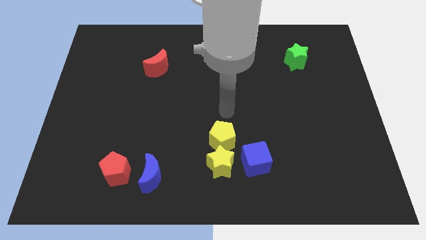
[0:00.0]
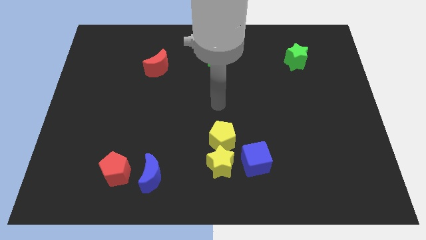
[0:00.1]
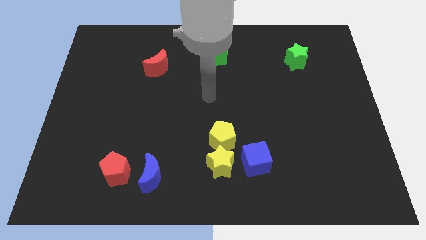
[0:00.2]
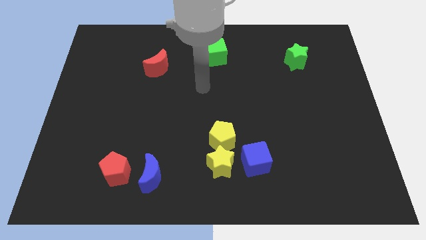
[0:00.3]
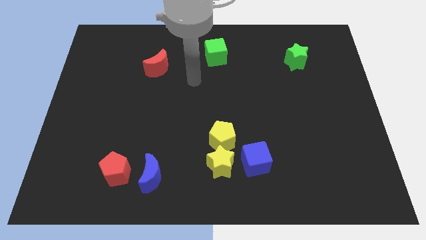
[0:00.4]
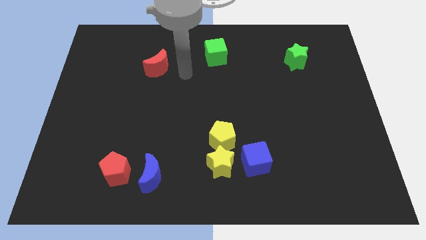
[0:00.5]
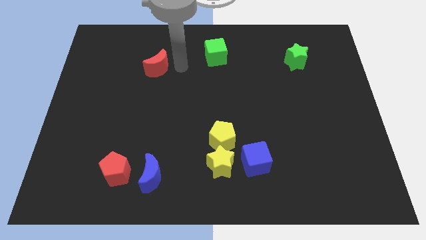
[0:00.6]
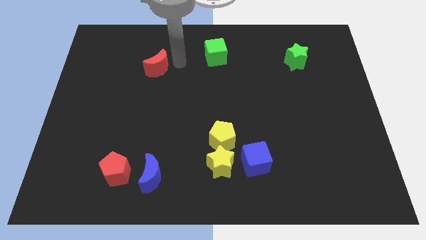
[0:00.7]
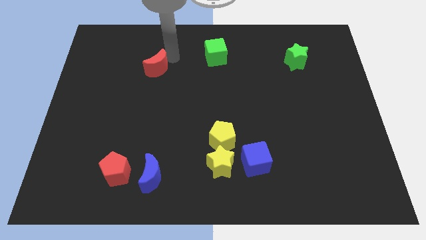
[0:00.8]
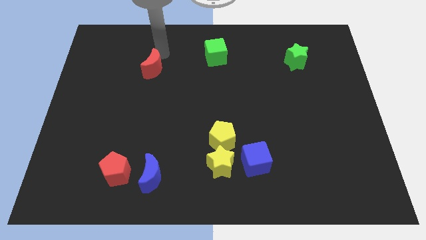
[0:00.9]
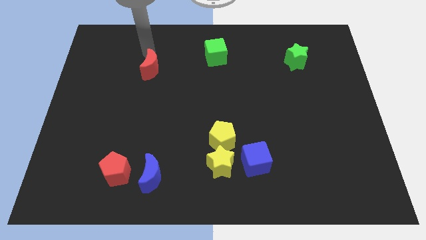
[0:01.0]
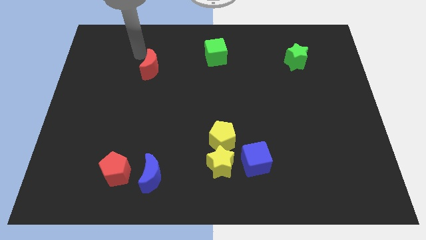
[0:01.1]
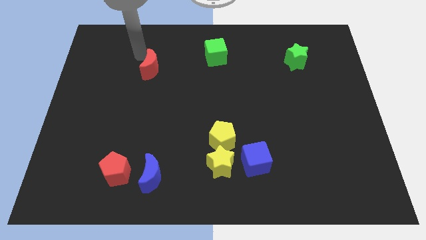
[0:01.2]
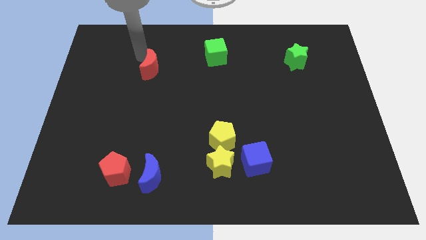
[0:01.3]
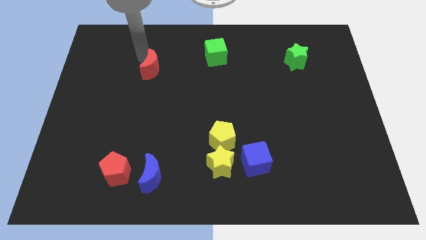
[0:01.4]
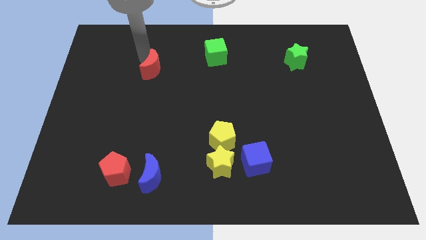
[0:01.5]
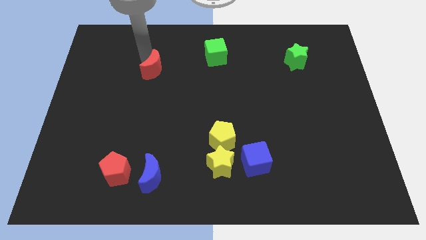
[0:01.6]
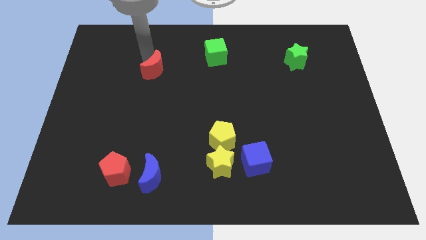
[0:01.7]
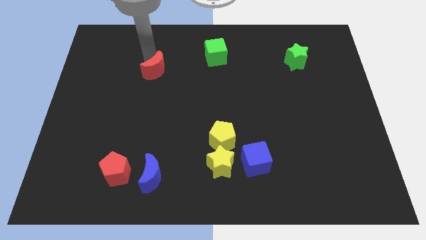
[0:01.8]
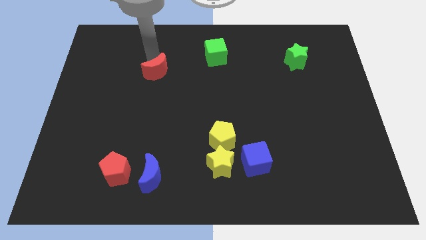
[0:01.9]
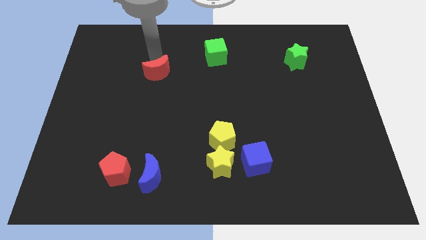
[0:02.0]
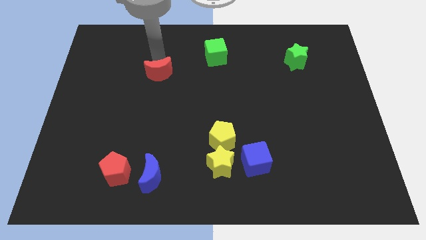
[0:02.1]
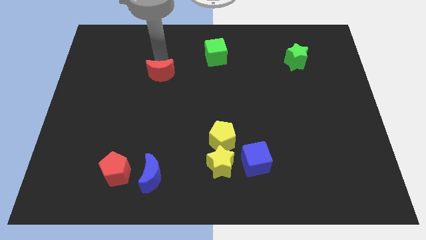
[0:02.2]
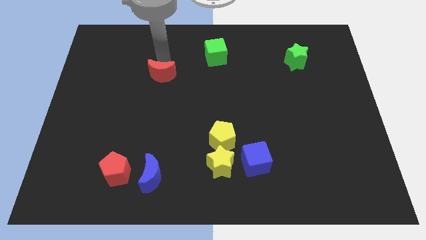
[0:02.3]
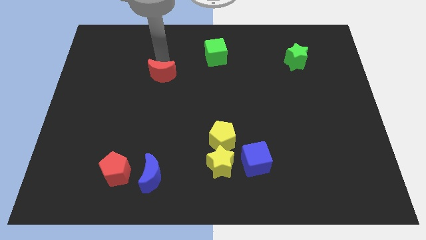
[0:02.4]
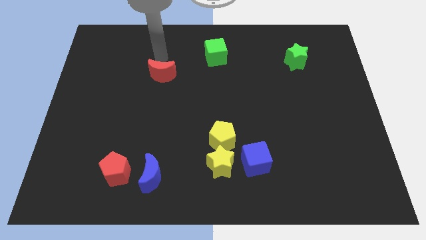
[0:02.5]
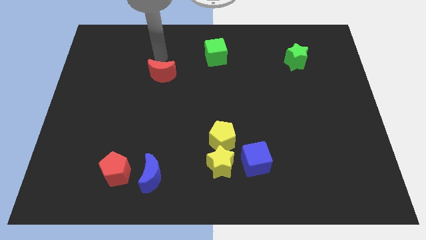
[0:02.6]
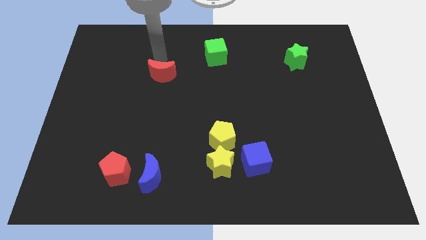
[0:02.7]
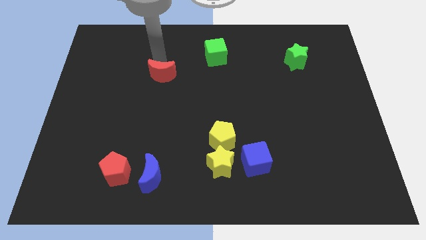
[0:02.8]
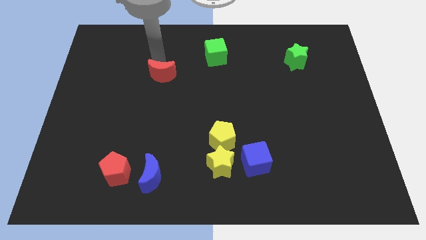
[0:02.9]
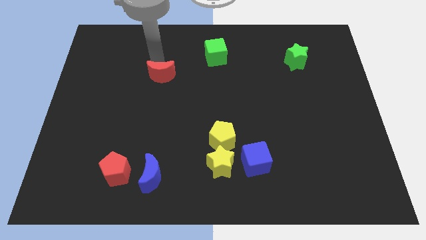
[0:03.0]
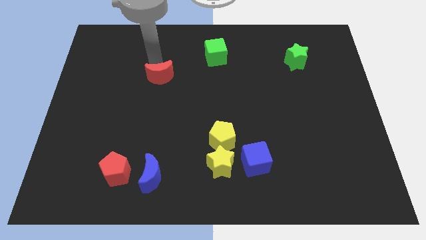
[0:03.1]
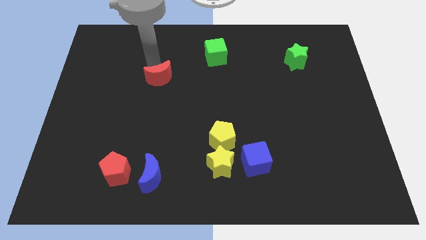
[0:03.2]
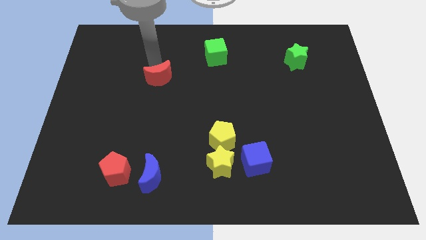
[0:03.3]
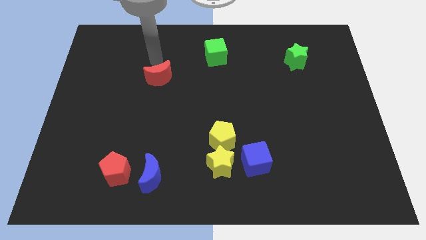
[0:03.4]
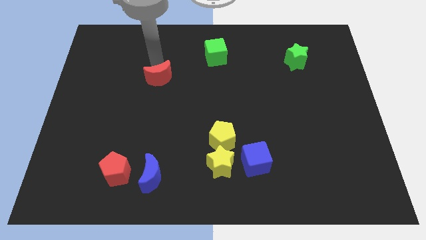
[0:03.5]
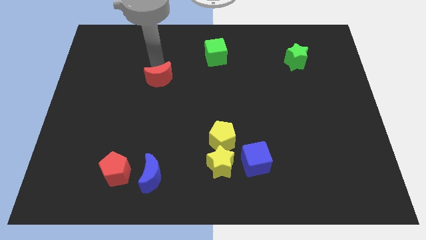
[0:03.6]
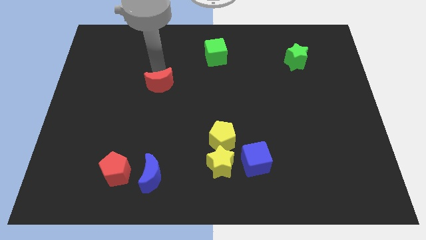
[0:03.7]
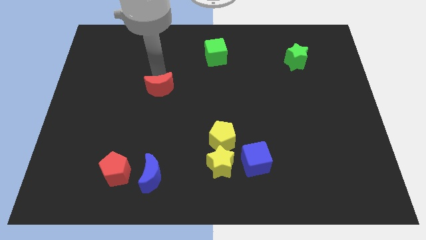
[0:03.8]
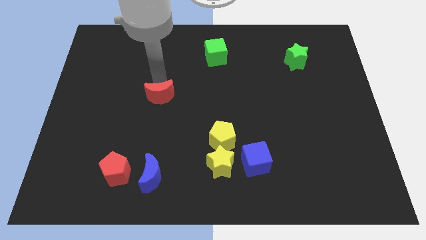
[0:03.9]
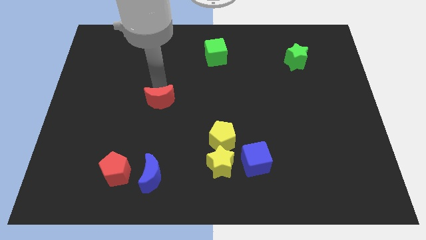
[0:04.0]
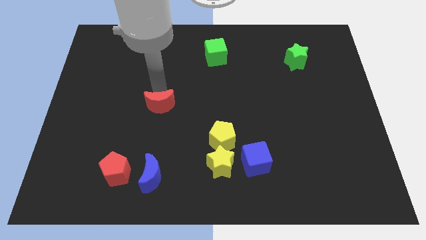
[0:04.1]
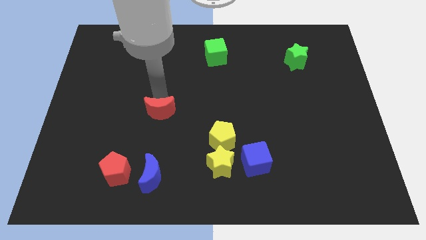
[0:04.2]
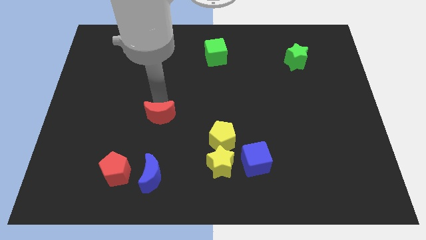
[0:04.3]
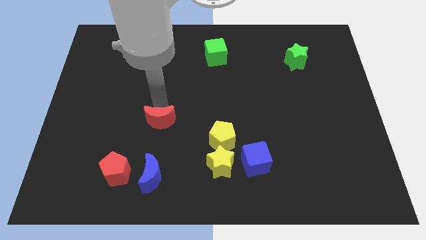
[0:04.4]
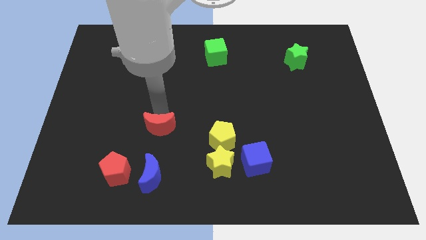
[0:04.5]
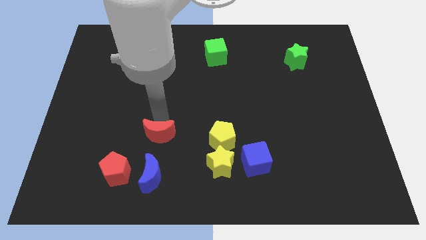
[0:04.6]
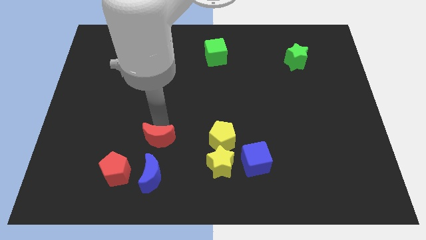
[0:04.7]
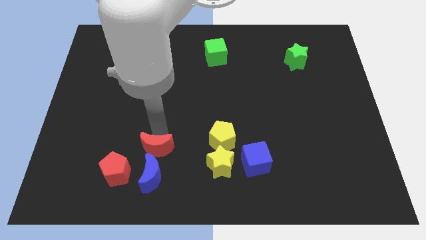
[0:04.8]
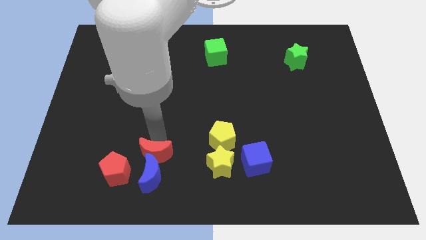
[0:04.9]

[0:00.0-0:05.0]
move the red moon next to the blue moon

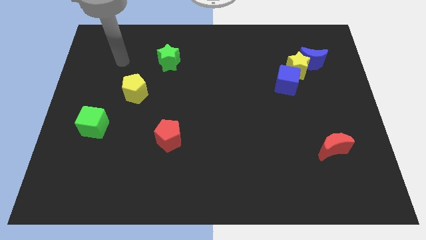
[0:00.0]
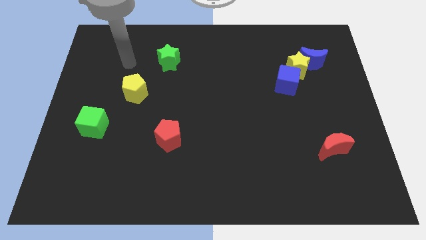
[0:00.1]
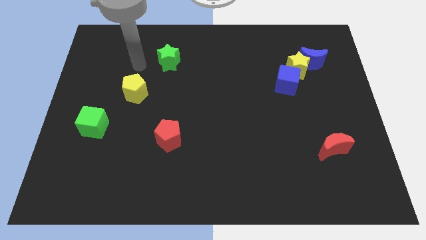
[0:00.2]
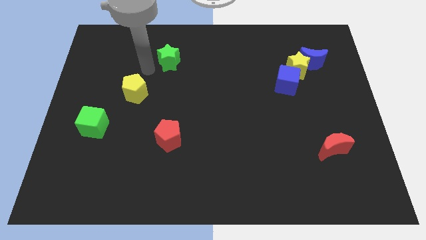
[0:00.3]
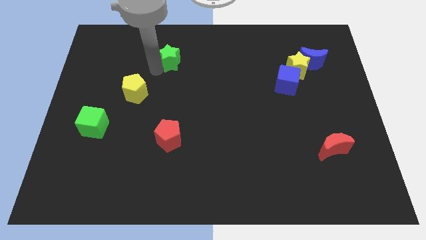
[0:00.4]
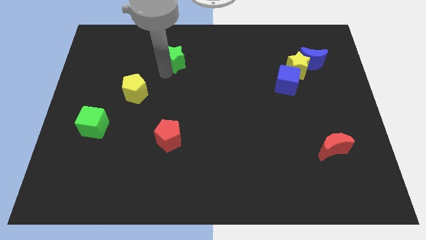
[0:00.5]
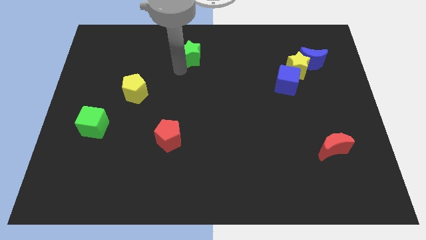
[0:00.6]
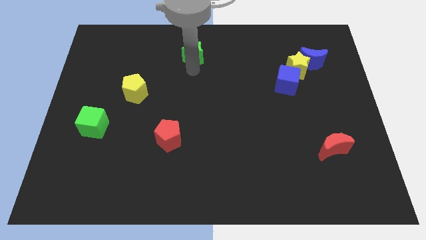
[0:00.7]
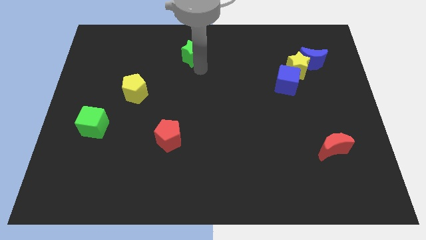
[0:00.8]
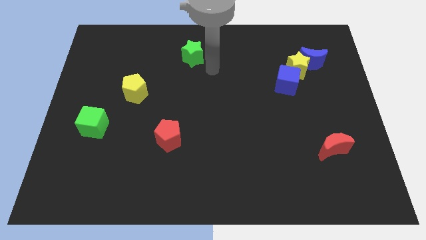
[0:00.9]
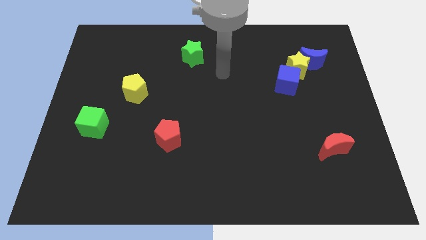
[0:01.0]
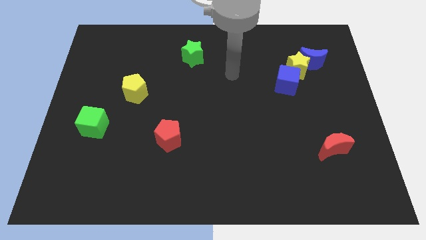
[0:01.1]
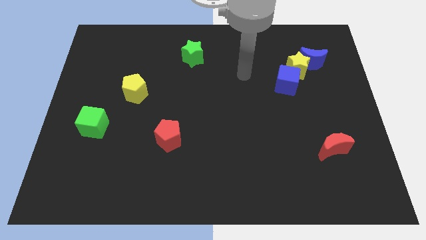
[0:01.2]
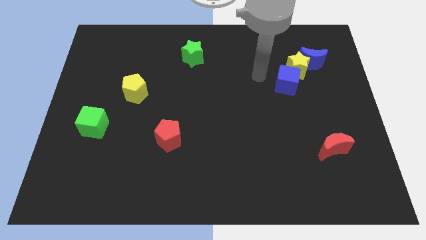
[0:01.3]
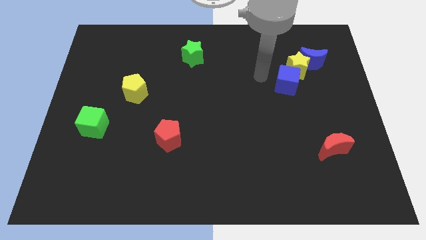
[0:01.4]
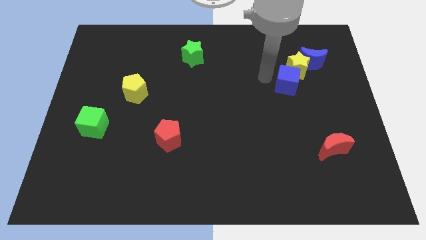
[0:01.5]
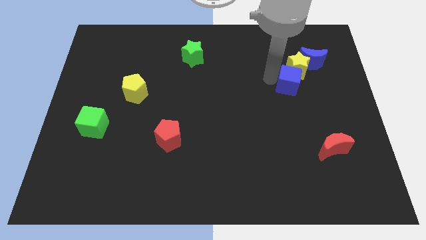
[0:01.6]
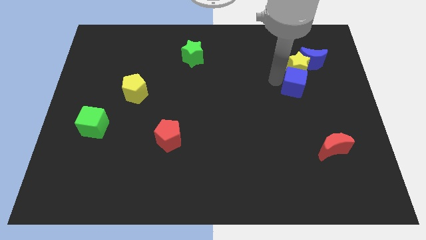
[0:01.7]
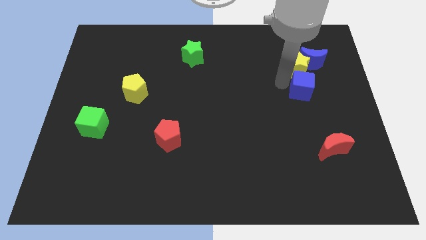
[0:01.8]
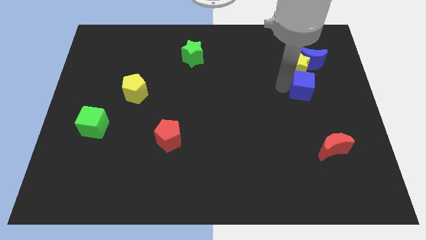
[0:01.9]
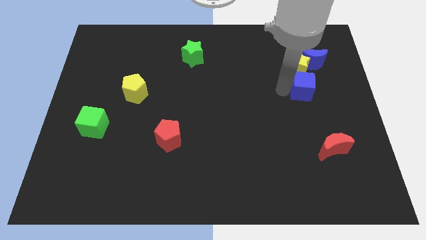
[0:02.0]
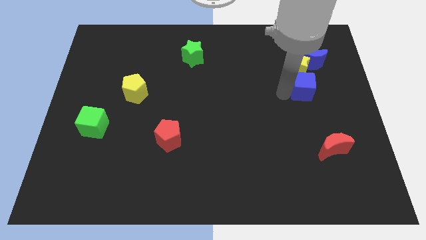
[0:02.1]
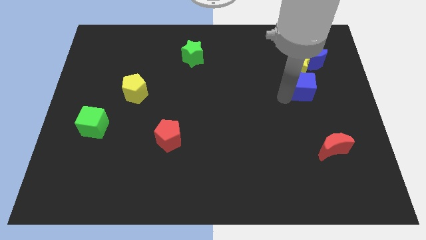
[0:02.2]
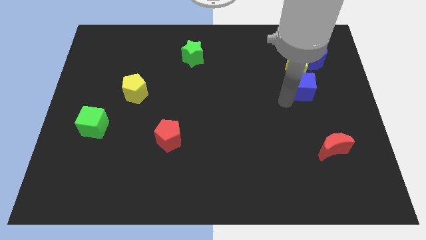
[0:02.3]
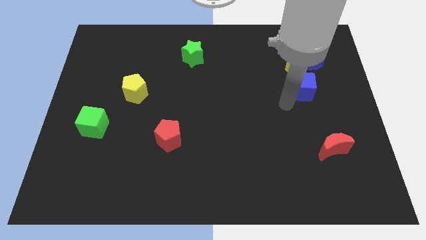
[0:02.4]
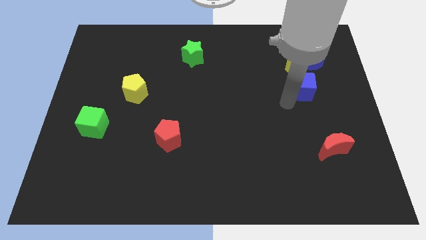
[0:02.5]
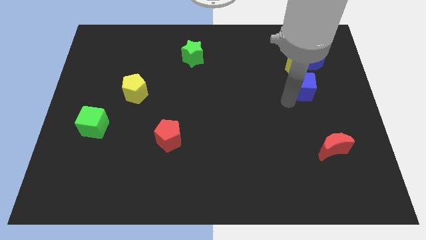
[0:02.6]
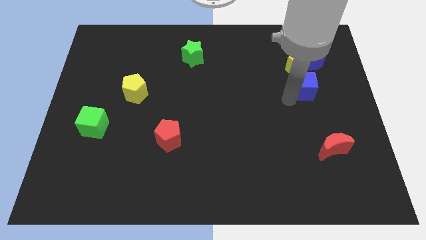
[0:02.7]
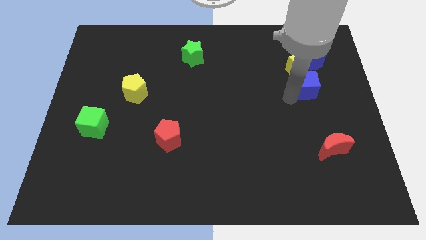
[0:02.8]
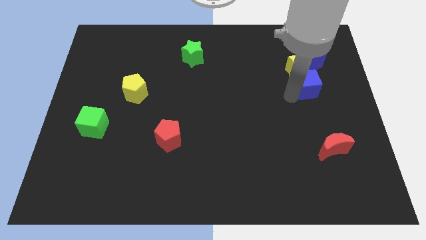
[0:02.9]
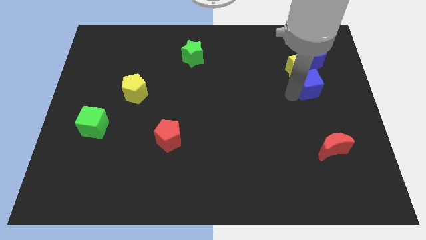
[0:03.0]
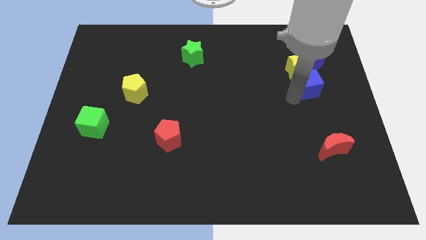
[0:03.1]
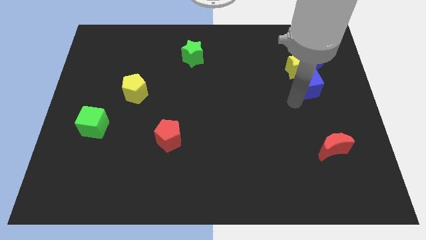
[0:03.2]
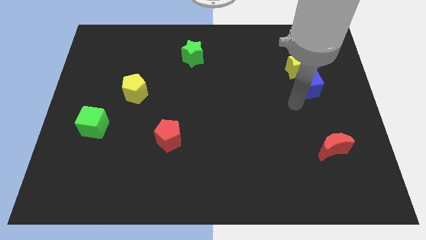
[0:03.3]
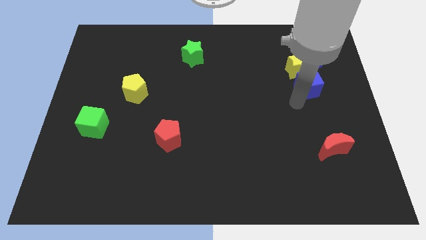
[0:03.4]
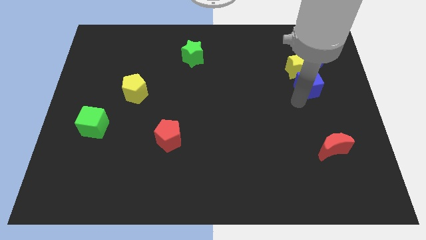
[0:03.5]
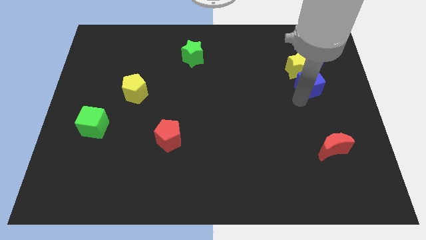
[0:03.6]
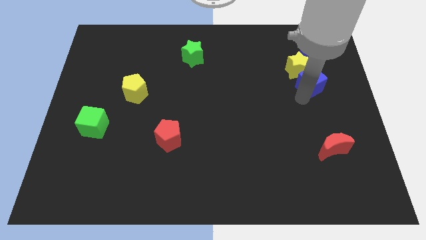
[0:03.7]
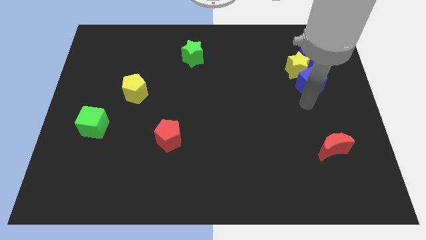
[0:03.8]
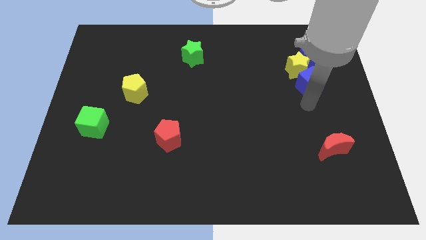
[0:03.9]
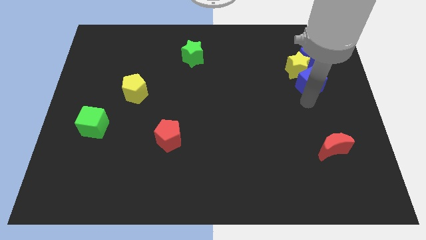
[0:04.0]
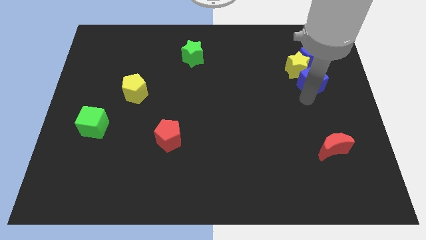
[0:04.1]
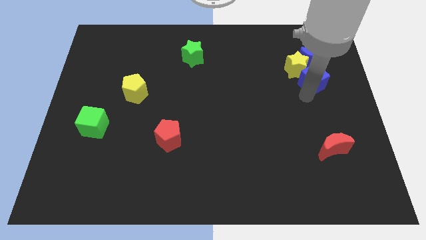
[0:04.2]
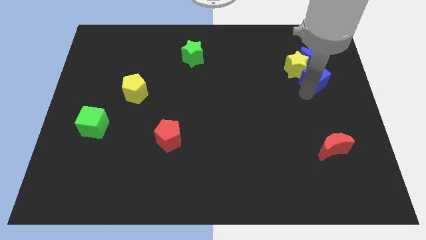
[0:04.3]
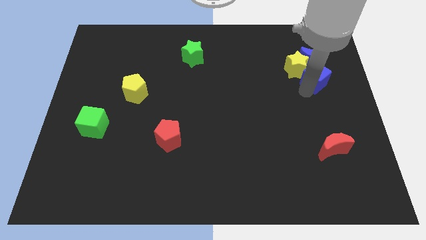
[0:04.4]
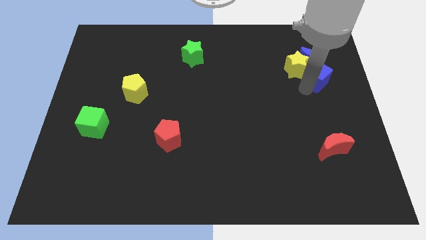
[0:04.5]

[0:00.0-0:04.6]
push the blue cube towards the blue moon
